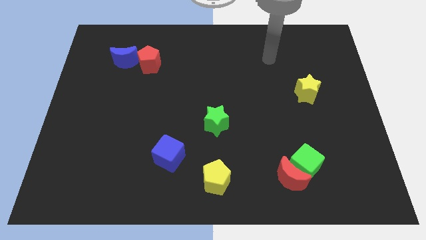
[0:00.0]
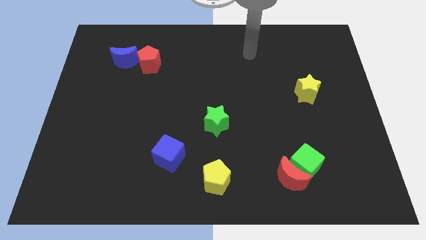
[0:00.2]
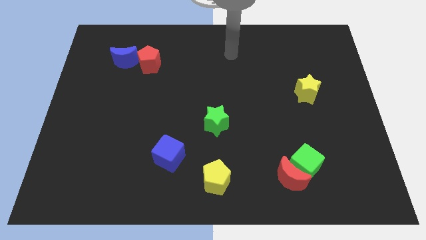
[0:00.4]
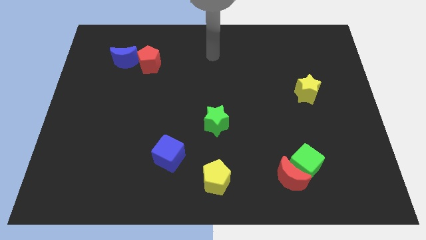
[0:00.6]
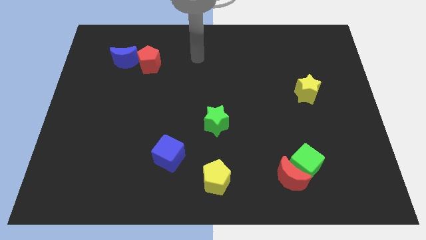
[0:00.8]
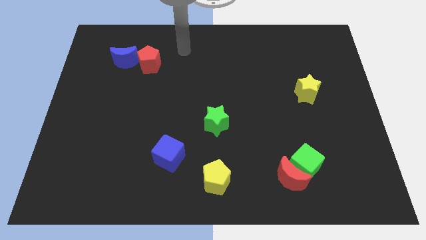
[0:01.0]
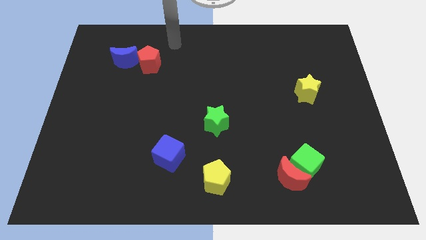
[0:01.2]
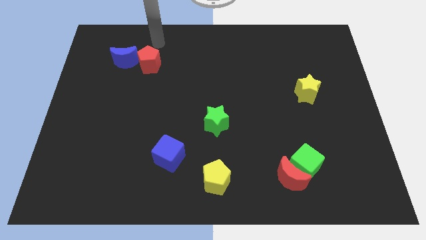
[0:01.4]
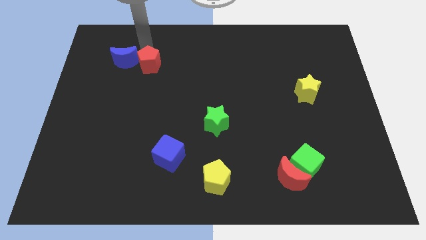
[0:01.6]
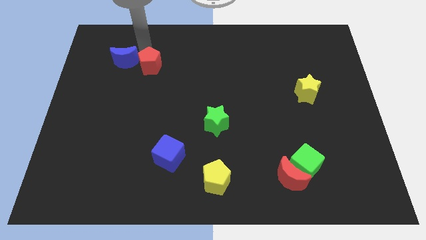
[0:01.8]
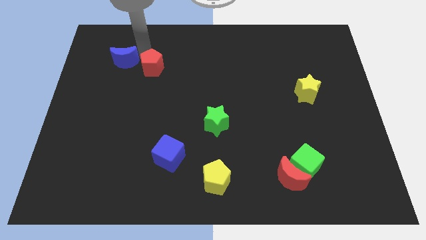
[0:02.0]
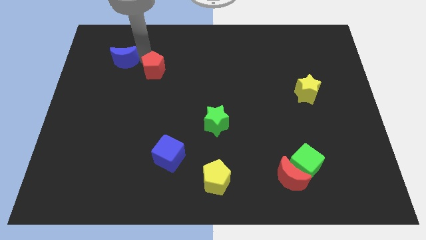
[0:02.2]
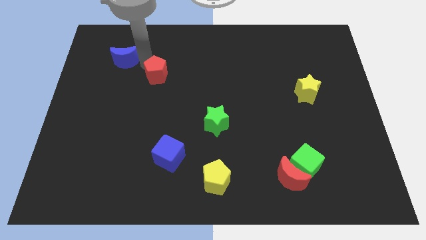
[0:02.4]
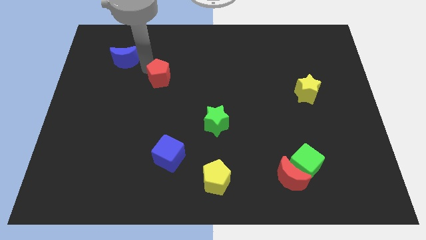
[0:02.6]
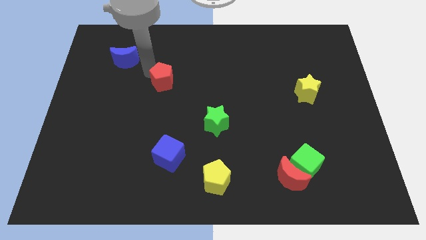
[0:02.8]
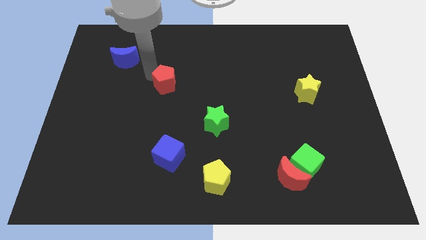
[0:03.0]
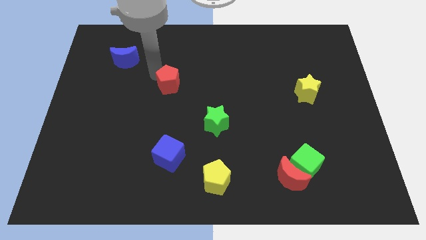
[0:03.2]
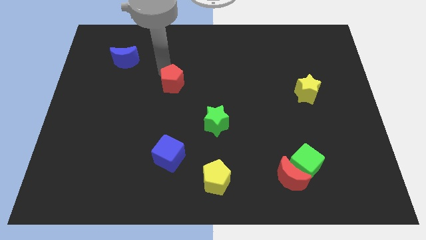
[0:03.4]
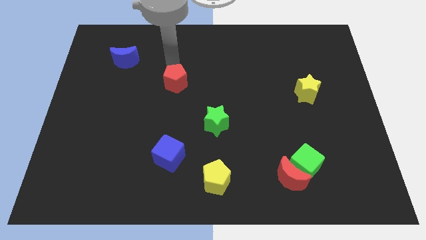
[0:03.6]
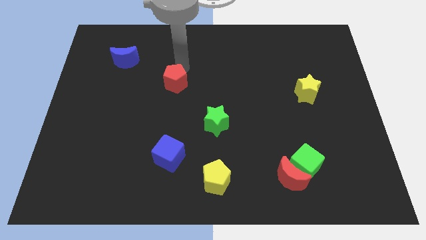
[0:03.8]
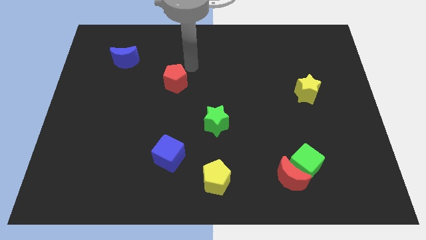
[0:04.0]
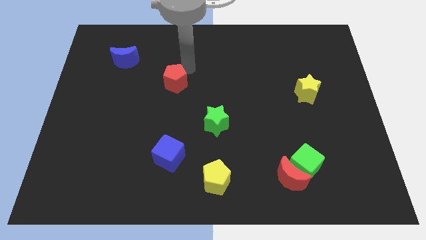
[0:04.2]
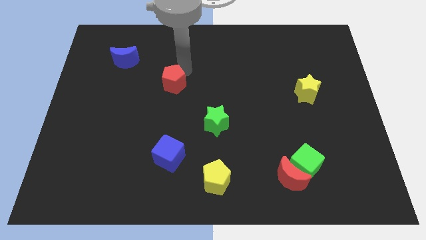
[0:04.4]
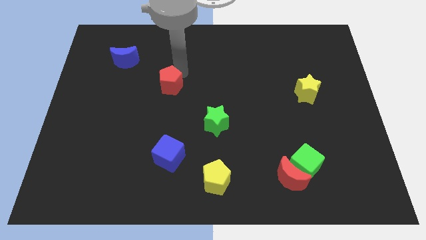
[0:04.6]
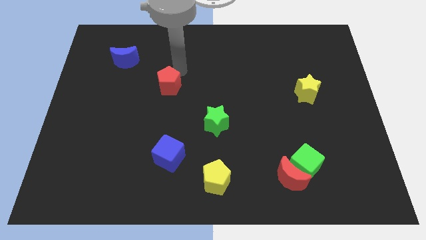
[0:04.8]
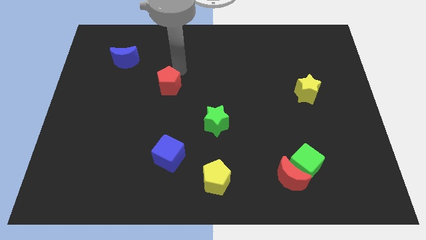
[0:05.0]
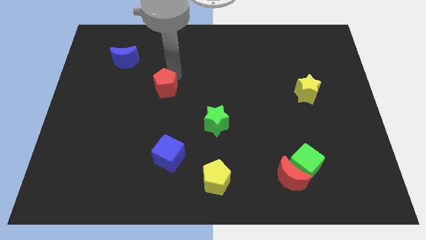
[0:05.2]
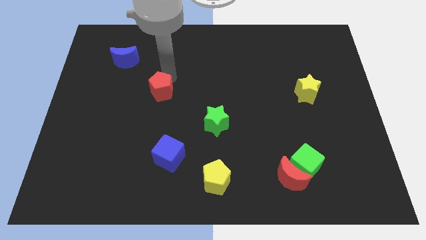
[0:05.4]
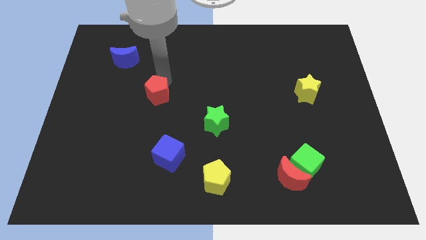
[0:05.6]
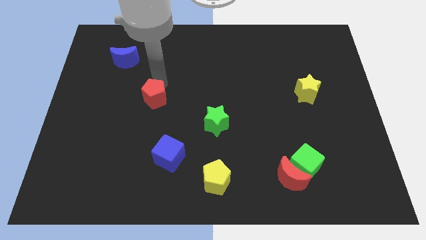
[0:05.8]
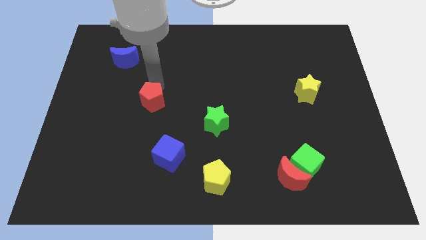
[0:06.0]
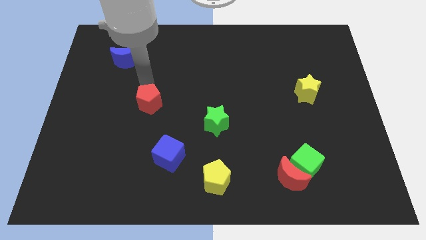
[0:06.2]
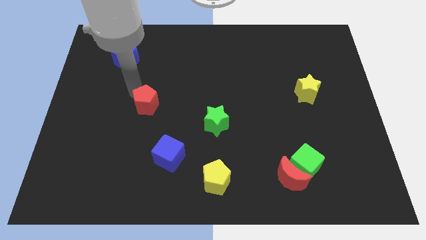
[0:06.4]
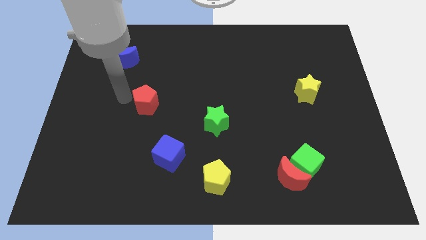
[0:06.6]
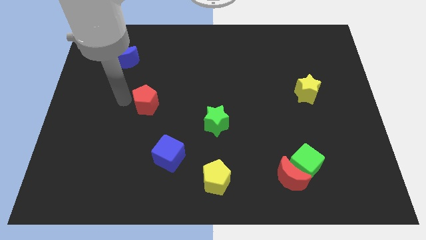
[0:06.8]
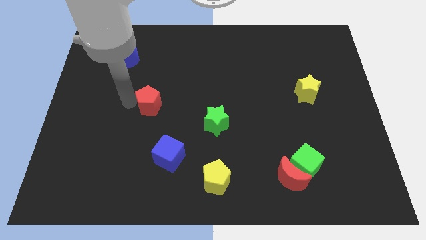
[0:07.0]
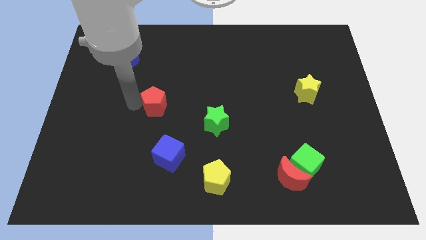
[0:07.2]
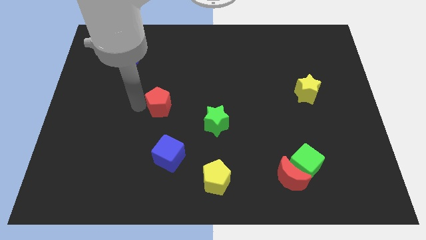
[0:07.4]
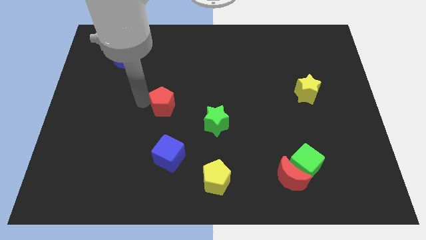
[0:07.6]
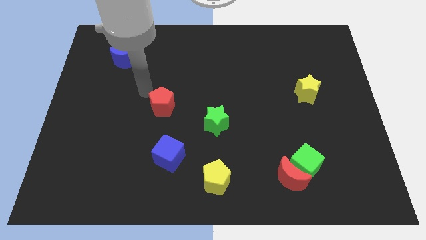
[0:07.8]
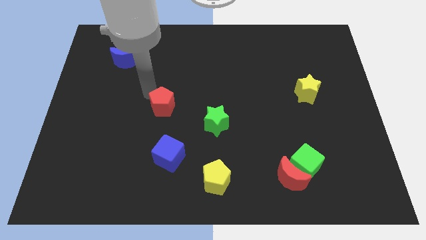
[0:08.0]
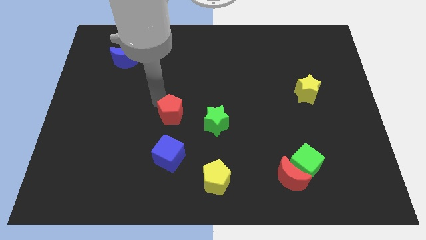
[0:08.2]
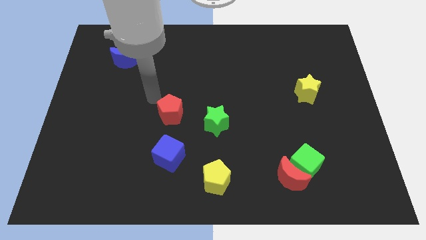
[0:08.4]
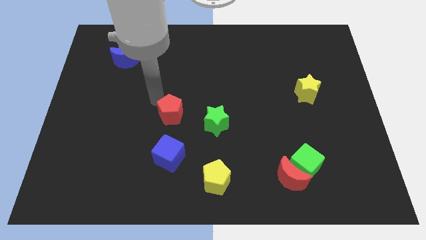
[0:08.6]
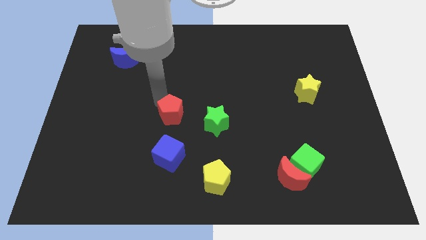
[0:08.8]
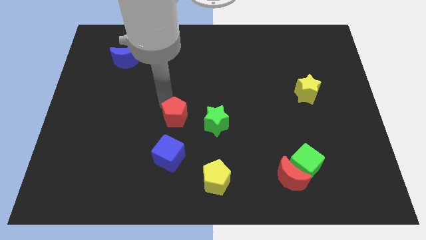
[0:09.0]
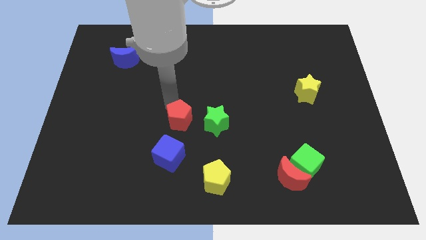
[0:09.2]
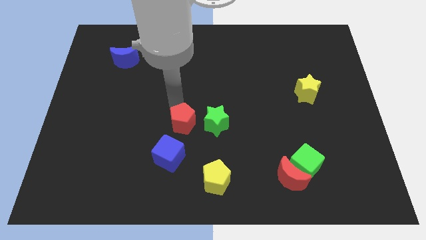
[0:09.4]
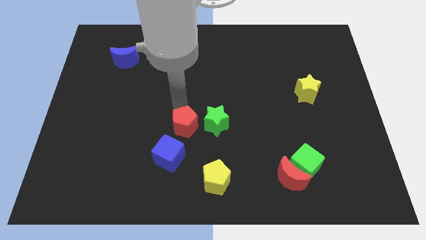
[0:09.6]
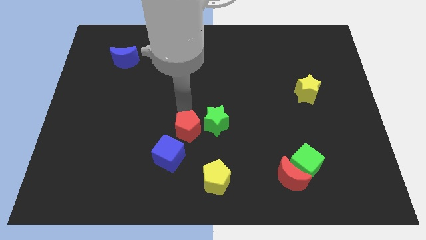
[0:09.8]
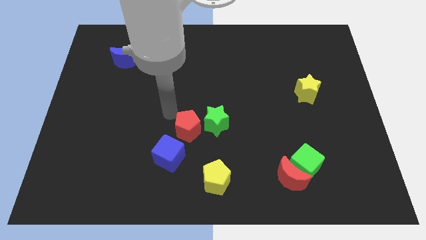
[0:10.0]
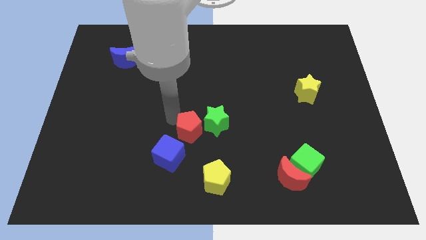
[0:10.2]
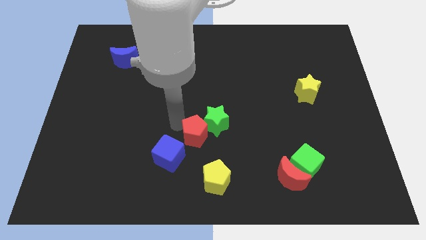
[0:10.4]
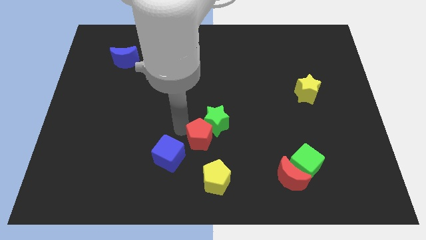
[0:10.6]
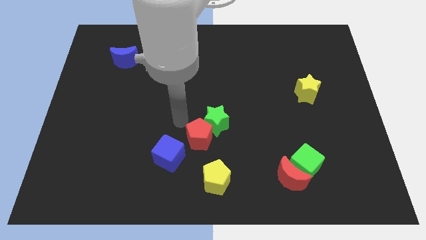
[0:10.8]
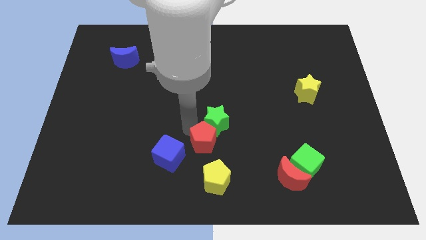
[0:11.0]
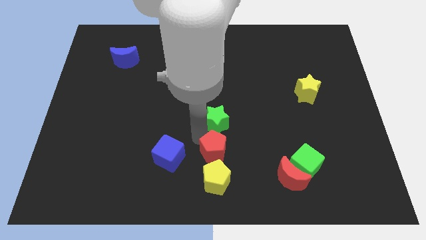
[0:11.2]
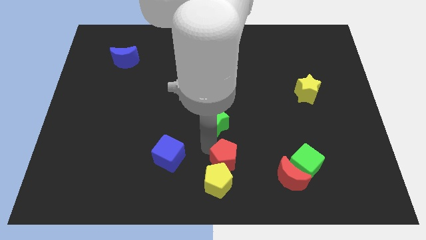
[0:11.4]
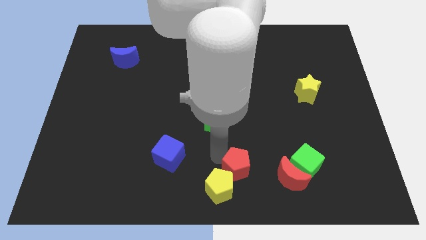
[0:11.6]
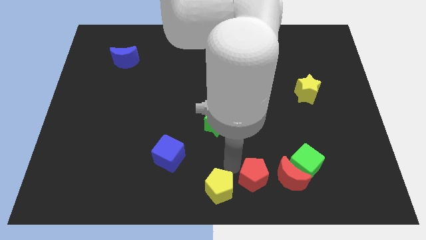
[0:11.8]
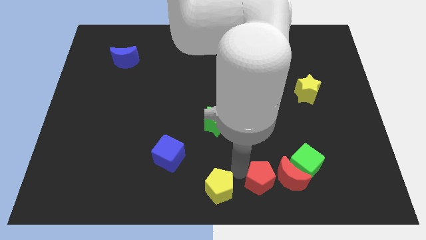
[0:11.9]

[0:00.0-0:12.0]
put the red pentagon to the red moon
